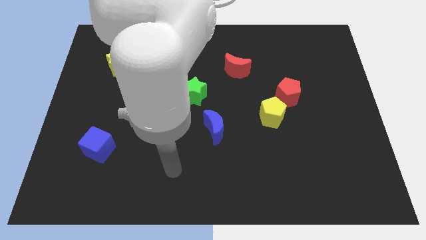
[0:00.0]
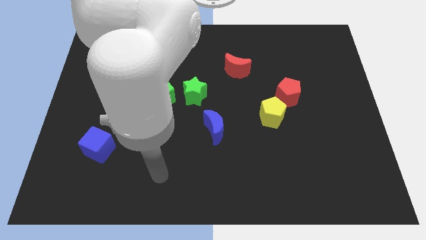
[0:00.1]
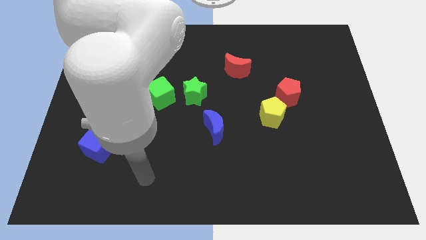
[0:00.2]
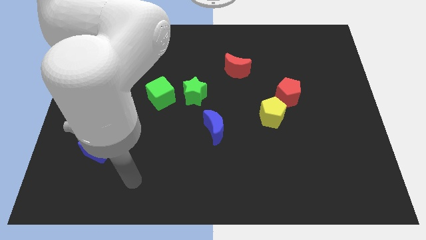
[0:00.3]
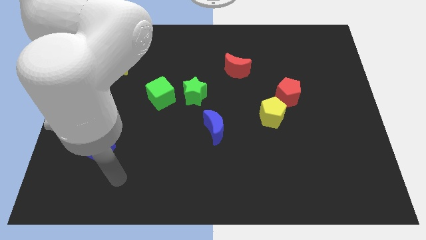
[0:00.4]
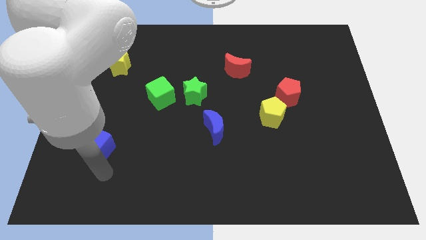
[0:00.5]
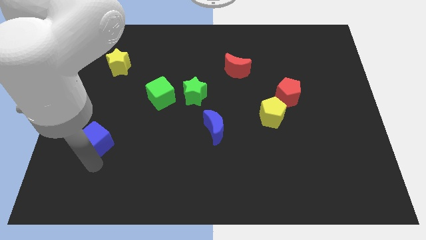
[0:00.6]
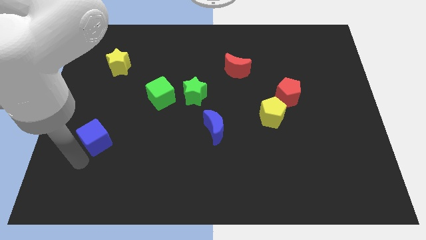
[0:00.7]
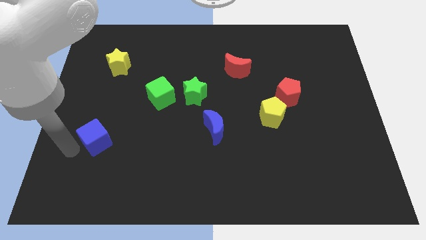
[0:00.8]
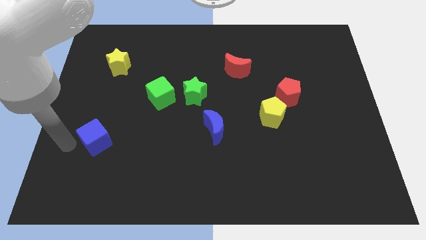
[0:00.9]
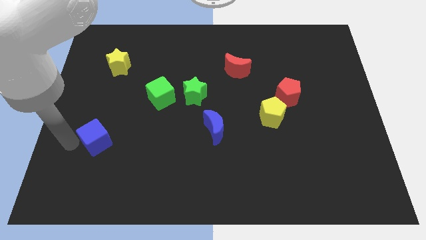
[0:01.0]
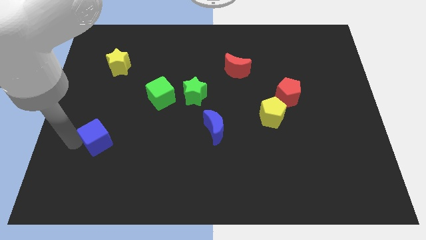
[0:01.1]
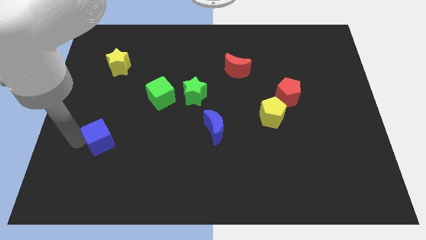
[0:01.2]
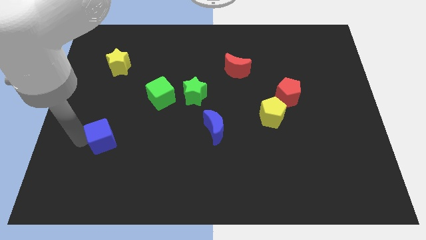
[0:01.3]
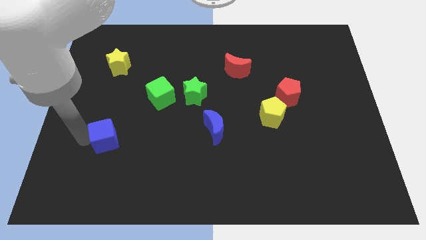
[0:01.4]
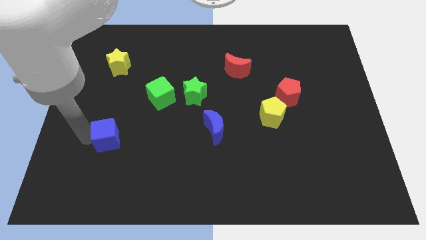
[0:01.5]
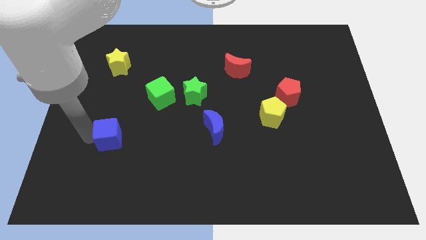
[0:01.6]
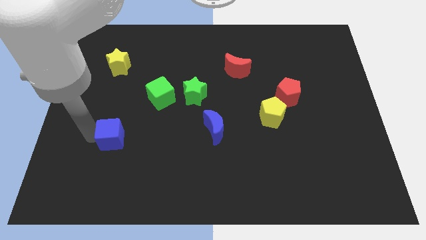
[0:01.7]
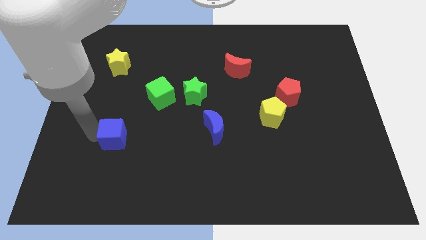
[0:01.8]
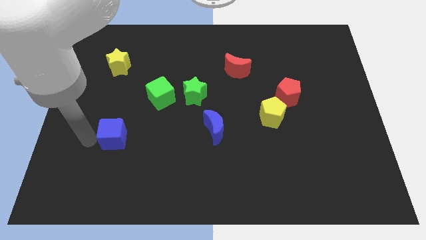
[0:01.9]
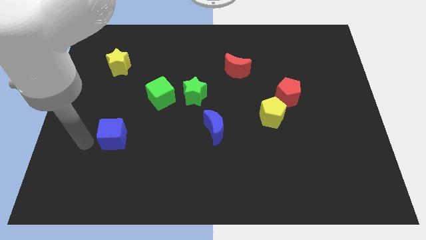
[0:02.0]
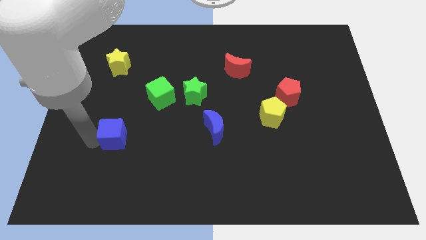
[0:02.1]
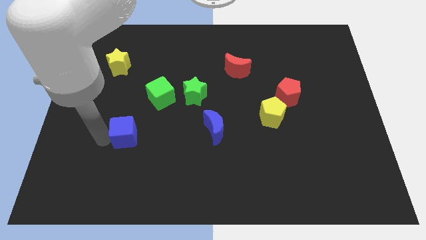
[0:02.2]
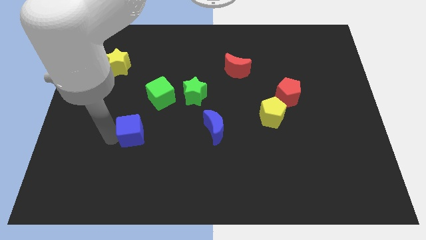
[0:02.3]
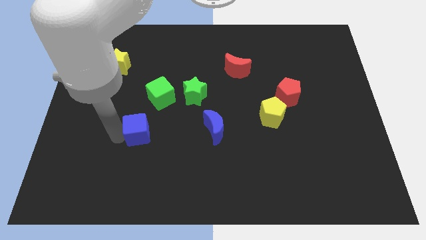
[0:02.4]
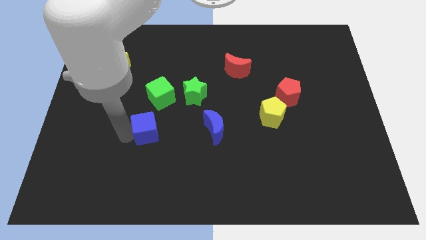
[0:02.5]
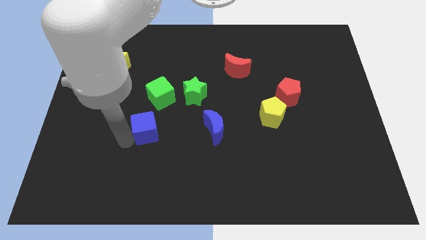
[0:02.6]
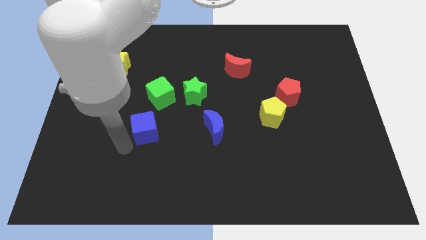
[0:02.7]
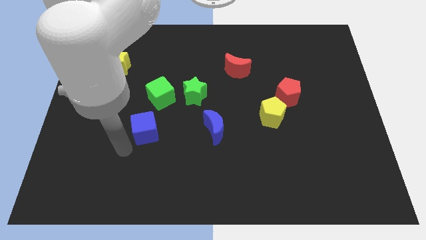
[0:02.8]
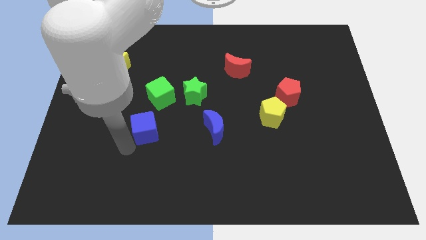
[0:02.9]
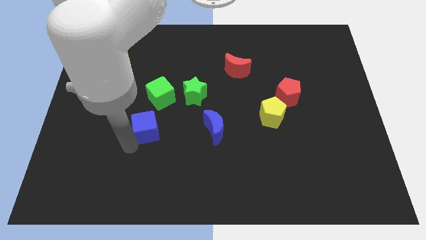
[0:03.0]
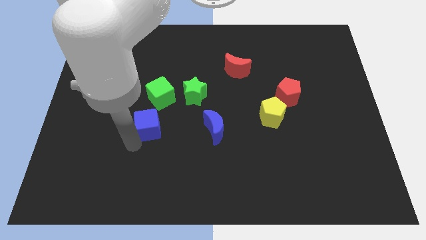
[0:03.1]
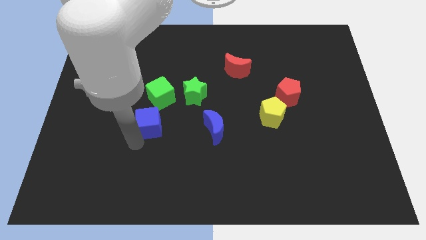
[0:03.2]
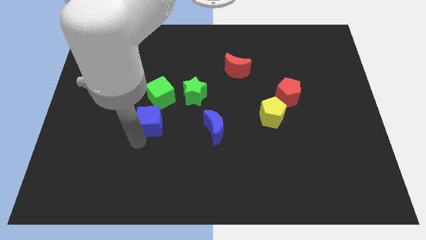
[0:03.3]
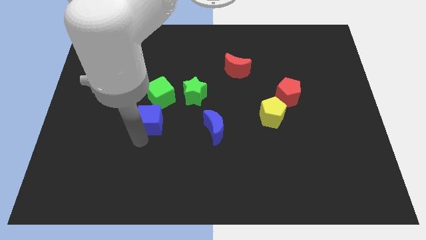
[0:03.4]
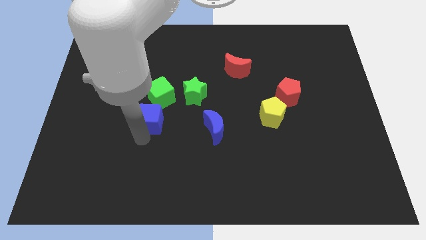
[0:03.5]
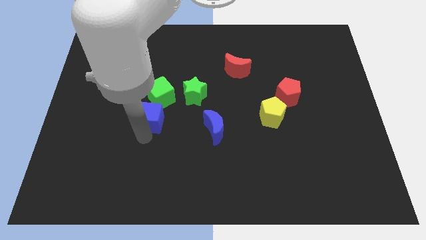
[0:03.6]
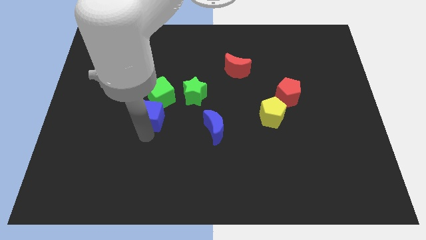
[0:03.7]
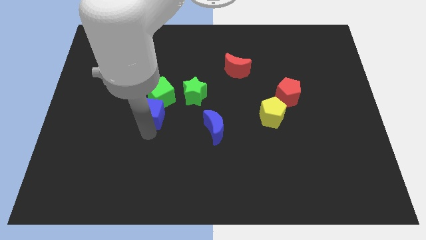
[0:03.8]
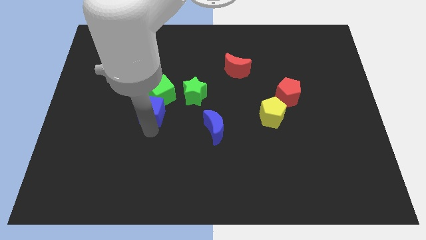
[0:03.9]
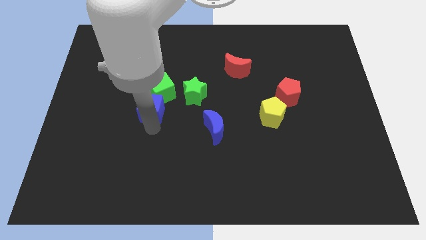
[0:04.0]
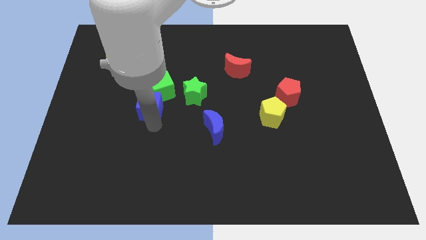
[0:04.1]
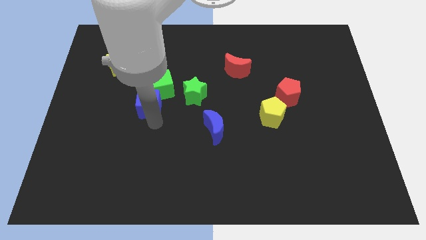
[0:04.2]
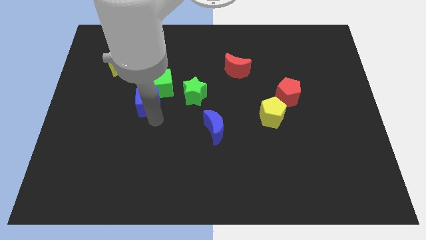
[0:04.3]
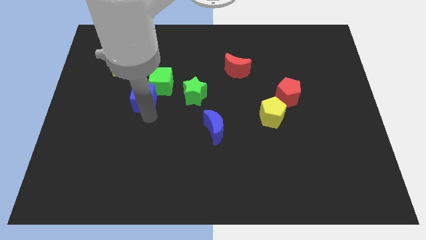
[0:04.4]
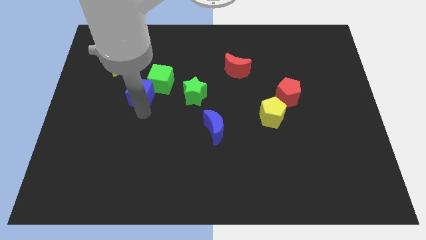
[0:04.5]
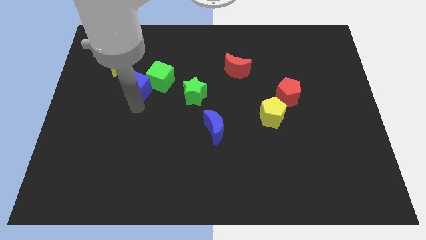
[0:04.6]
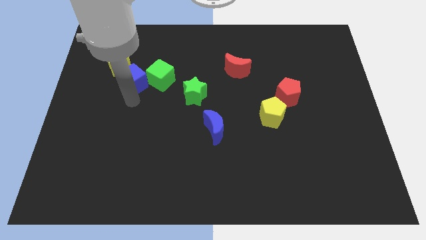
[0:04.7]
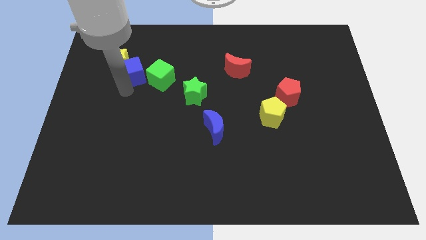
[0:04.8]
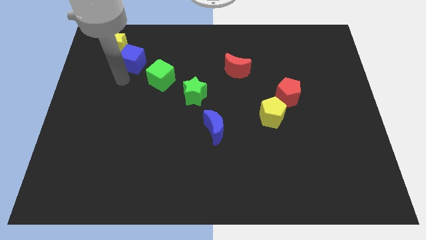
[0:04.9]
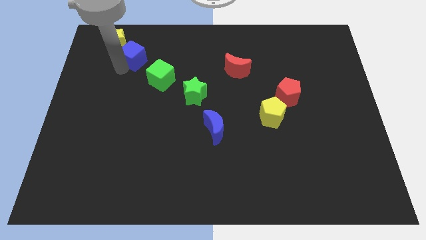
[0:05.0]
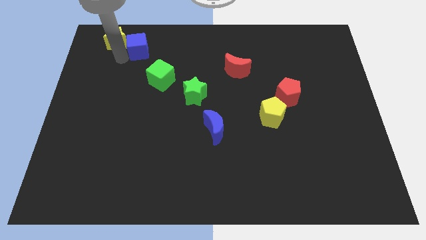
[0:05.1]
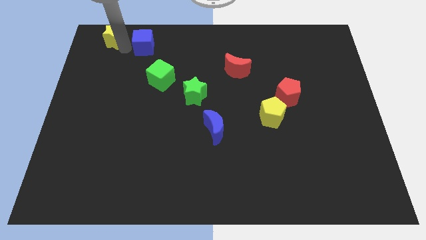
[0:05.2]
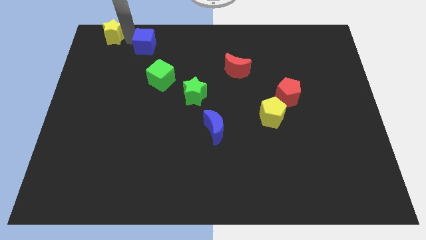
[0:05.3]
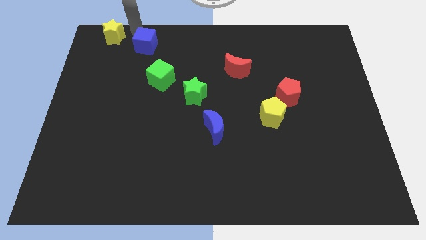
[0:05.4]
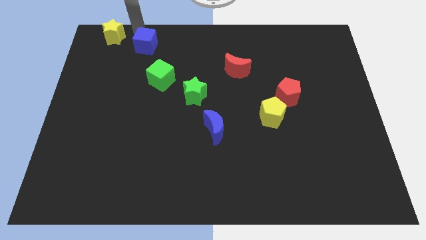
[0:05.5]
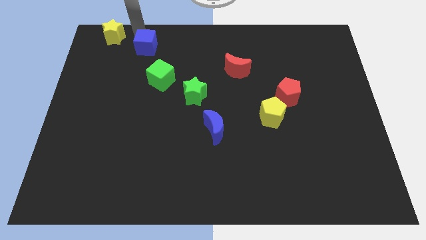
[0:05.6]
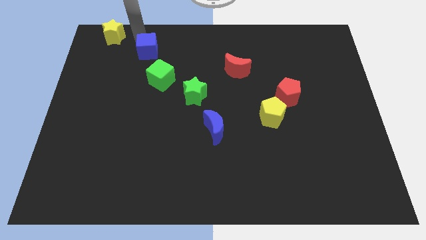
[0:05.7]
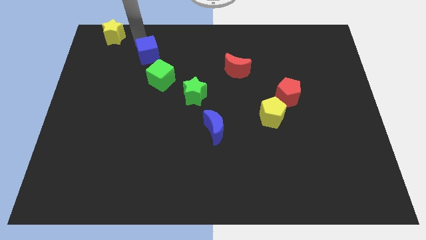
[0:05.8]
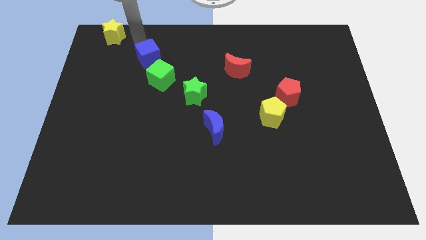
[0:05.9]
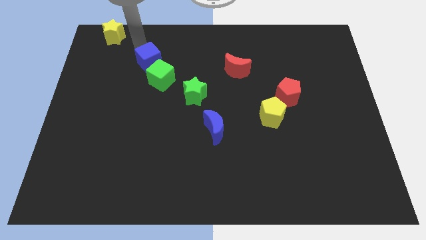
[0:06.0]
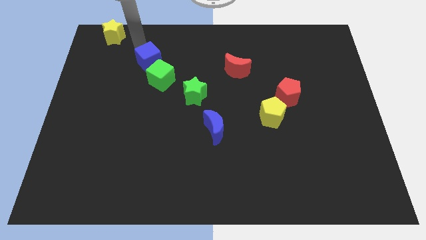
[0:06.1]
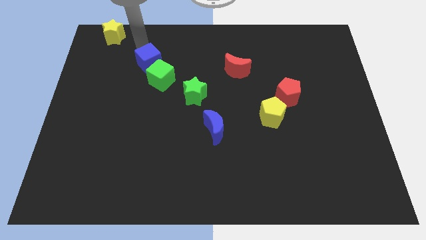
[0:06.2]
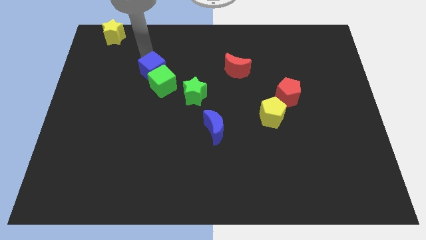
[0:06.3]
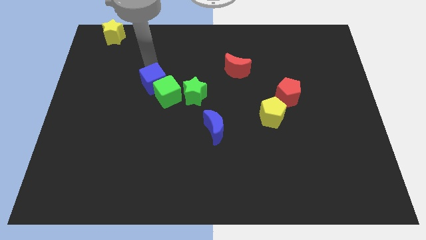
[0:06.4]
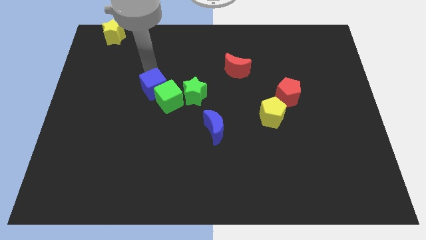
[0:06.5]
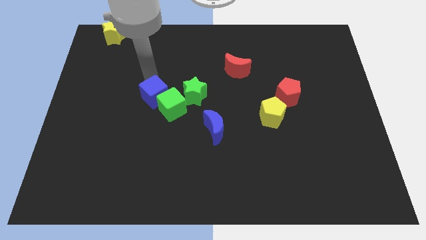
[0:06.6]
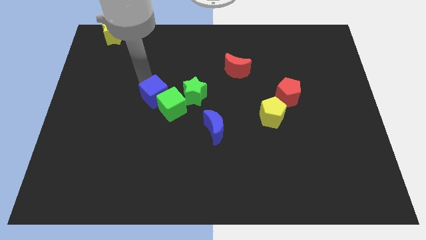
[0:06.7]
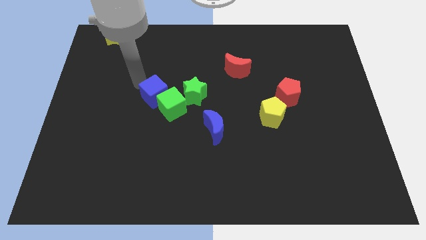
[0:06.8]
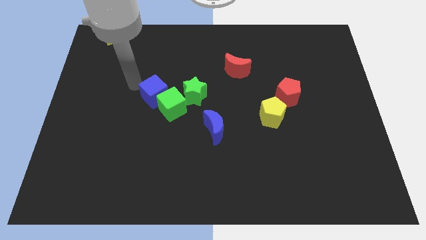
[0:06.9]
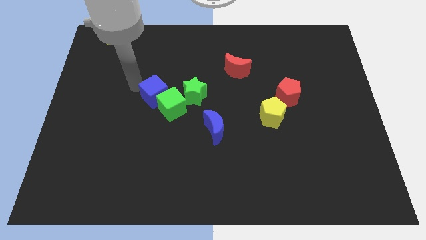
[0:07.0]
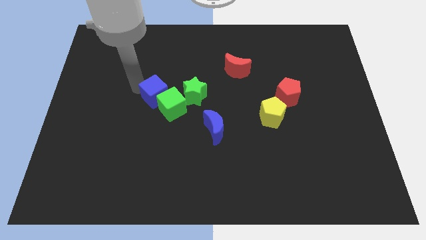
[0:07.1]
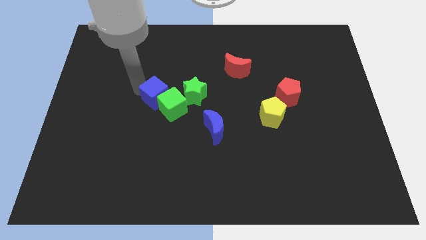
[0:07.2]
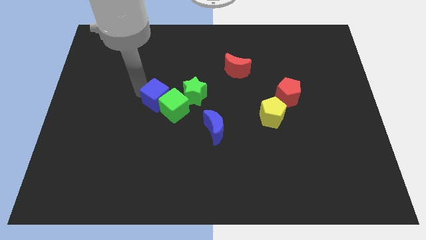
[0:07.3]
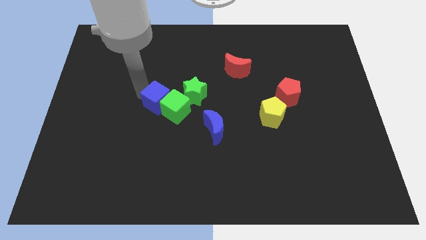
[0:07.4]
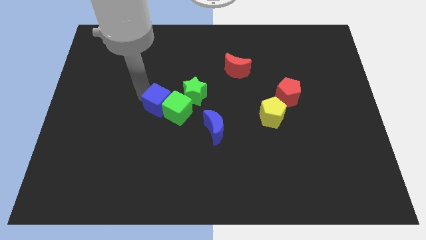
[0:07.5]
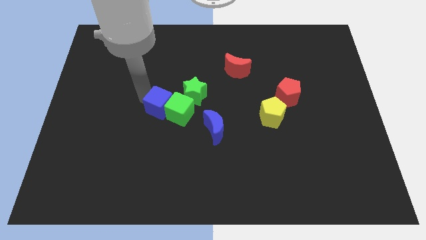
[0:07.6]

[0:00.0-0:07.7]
push the blue cube to the center of the board
